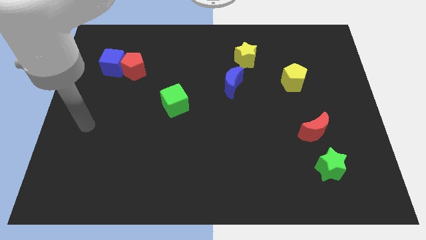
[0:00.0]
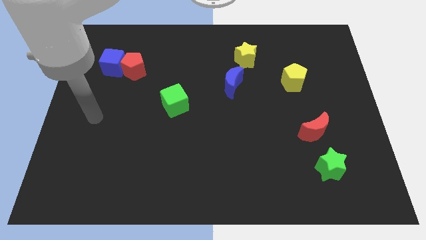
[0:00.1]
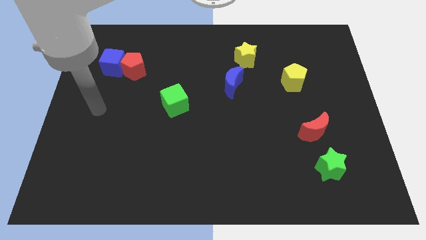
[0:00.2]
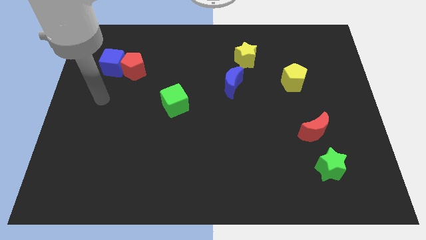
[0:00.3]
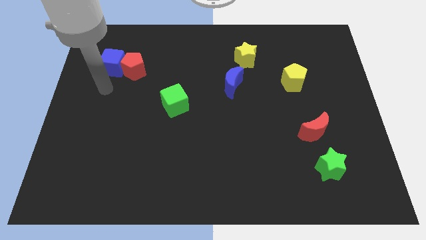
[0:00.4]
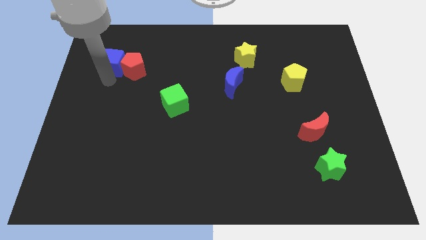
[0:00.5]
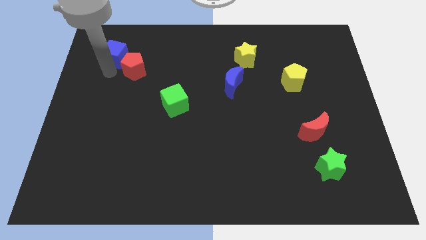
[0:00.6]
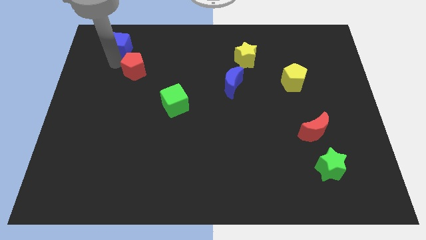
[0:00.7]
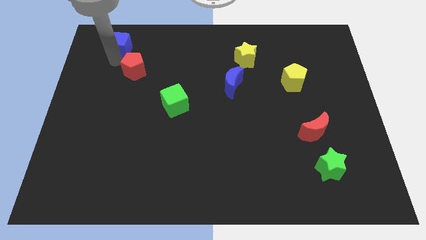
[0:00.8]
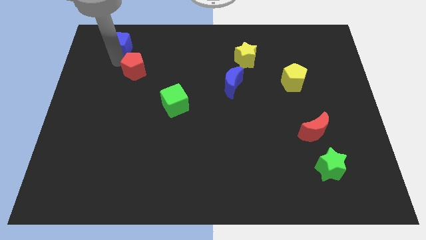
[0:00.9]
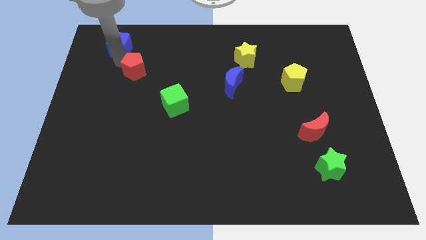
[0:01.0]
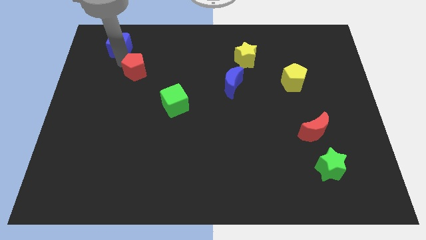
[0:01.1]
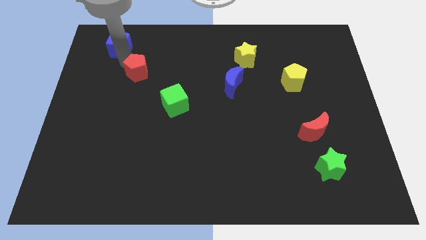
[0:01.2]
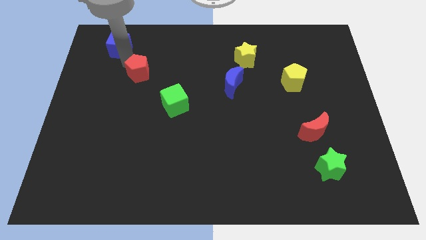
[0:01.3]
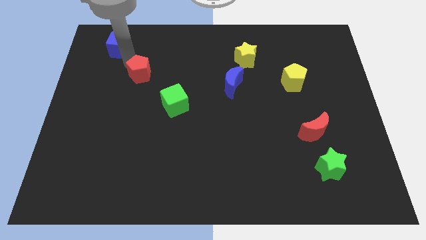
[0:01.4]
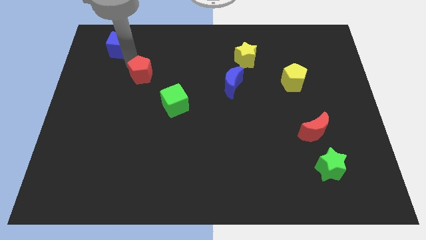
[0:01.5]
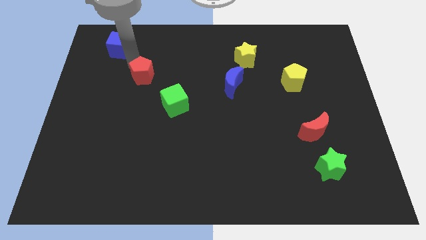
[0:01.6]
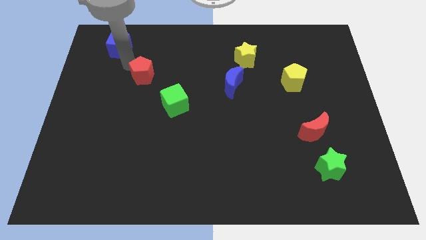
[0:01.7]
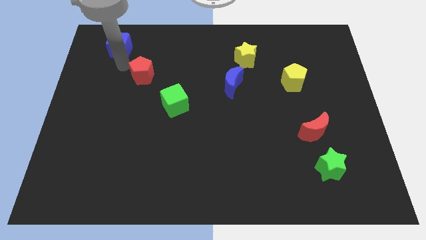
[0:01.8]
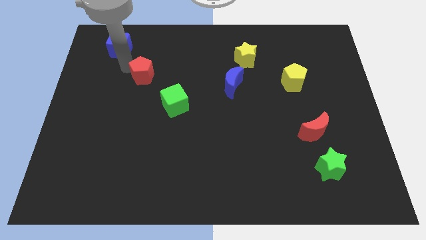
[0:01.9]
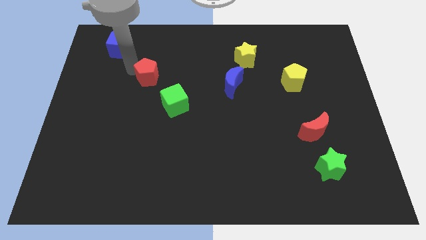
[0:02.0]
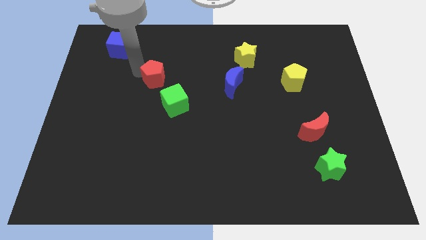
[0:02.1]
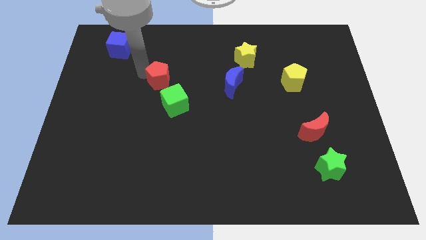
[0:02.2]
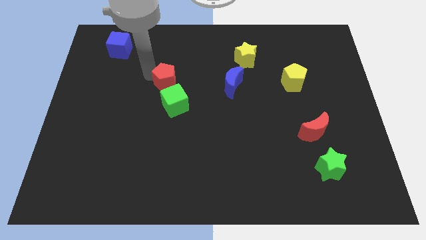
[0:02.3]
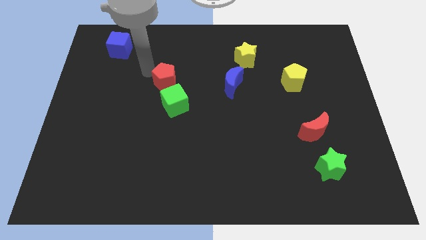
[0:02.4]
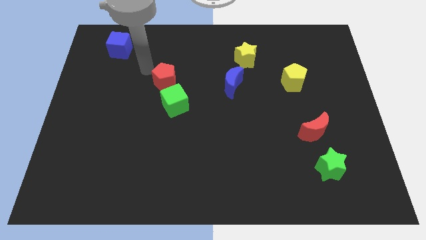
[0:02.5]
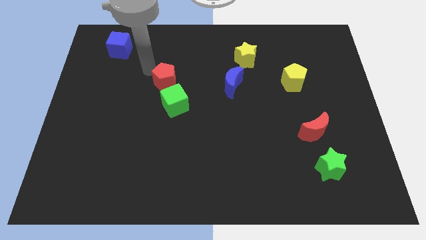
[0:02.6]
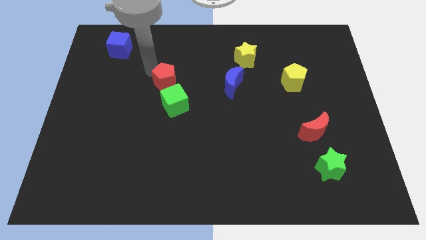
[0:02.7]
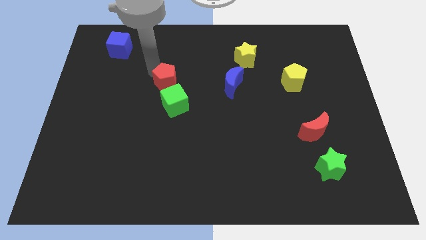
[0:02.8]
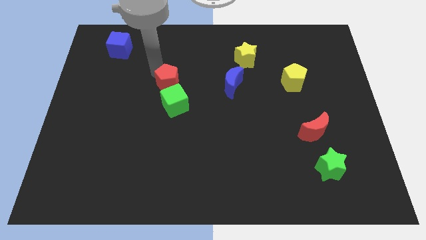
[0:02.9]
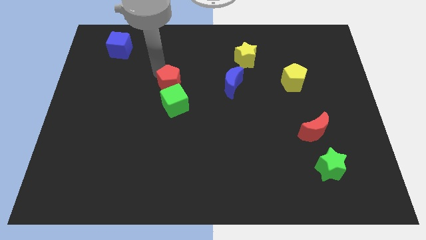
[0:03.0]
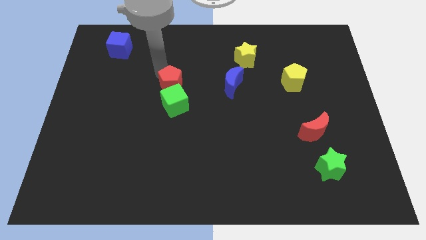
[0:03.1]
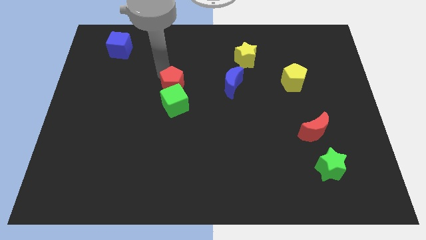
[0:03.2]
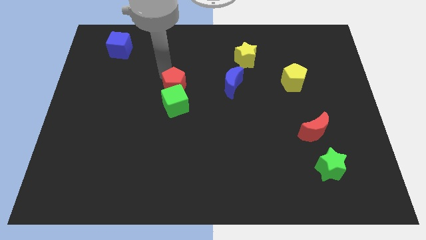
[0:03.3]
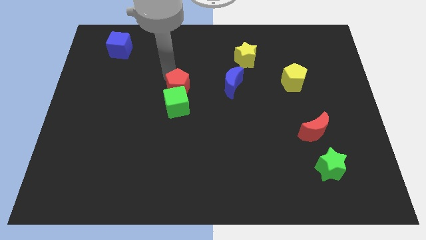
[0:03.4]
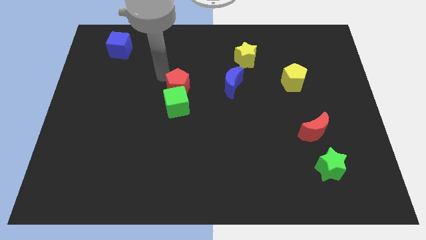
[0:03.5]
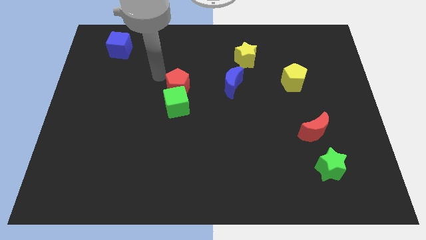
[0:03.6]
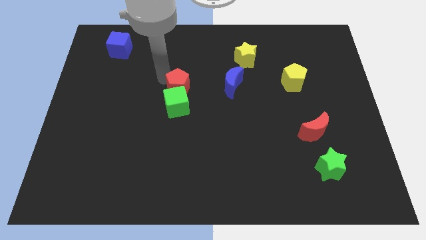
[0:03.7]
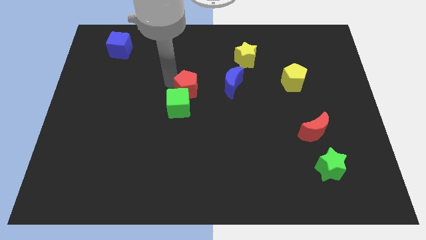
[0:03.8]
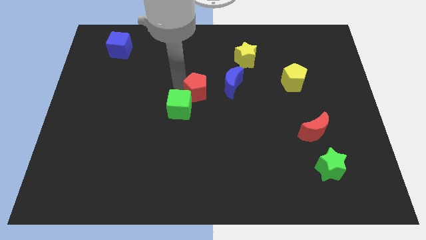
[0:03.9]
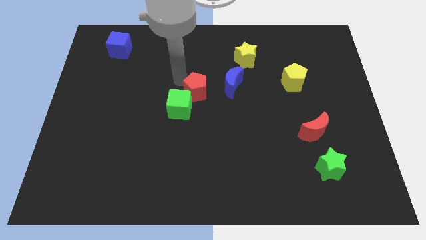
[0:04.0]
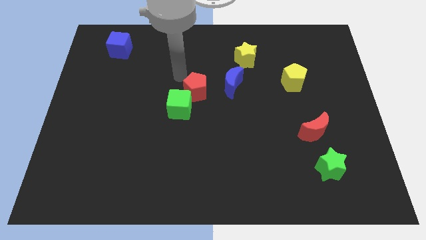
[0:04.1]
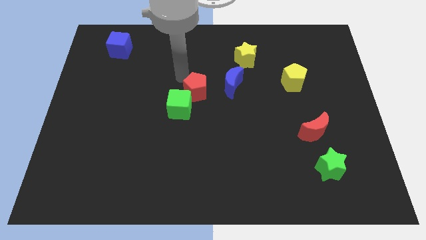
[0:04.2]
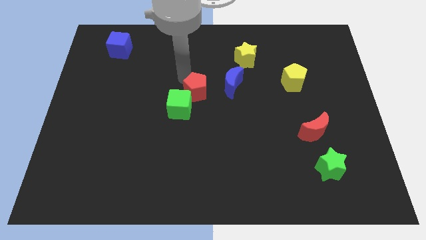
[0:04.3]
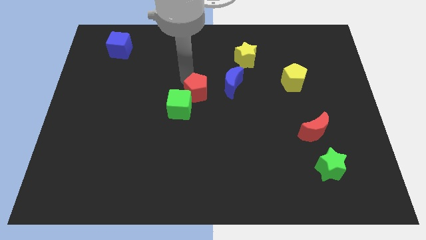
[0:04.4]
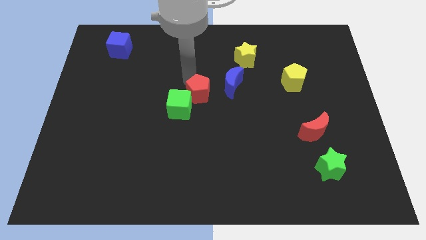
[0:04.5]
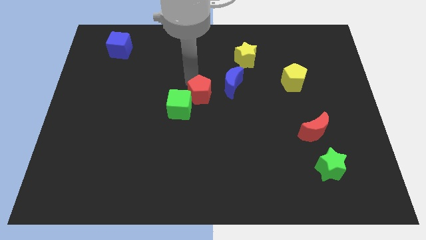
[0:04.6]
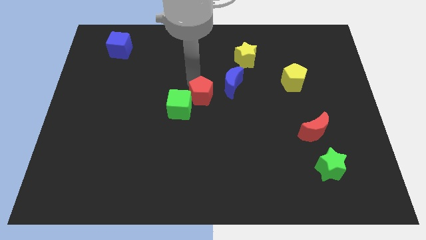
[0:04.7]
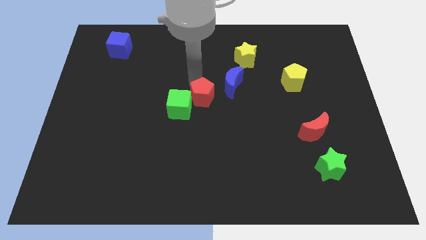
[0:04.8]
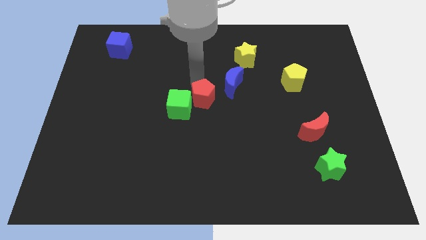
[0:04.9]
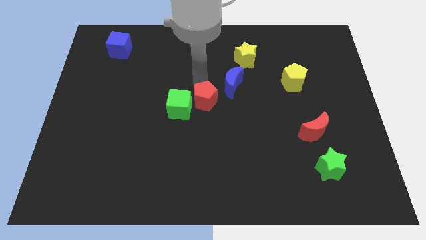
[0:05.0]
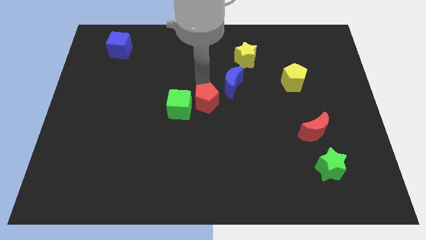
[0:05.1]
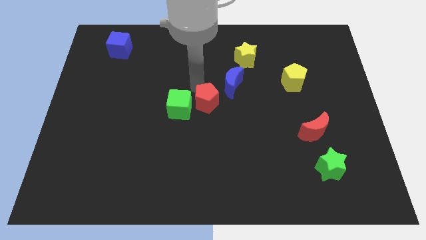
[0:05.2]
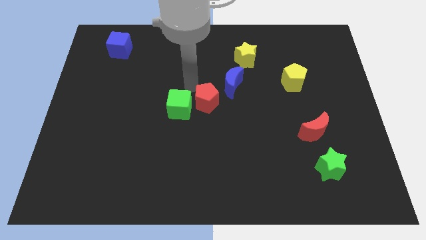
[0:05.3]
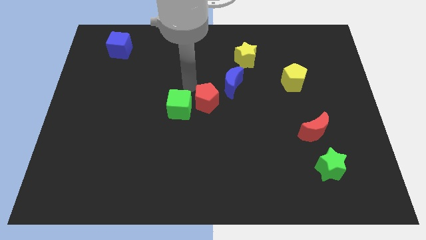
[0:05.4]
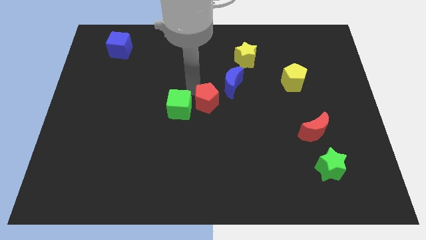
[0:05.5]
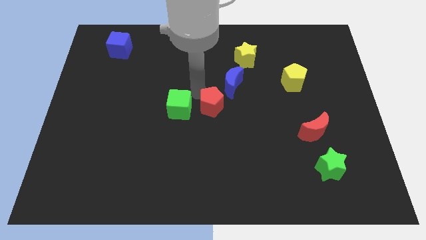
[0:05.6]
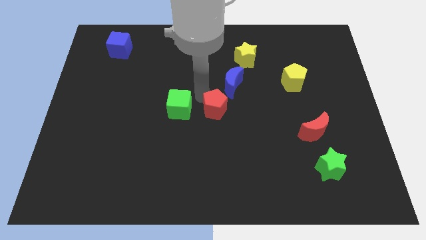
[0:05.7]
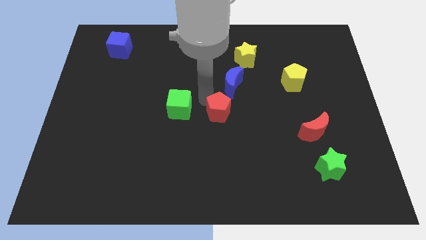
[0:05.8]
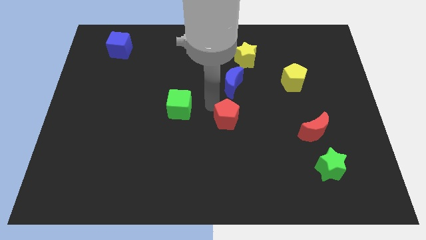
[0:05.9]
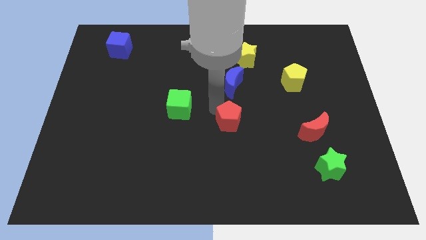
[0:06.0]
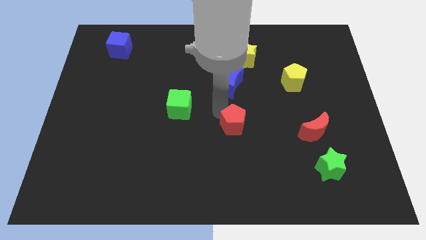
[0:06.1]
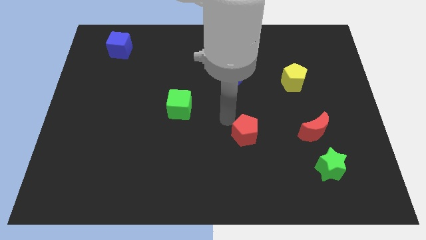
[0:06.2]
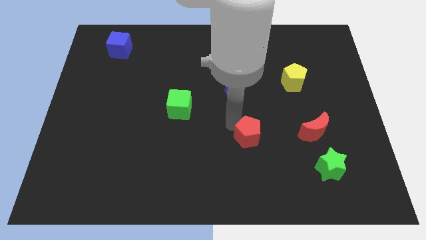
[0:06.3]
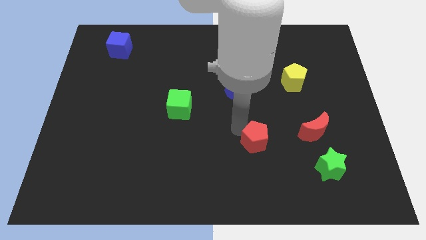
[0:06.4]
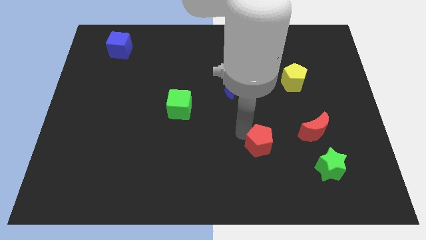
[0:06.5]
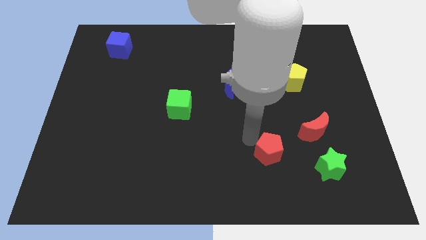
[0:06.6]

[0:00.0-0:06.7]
slide the red pentagon to the bottom left of the red moon
